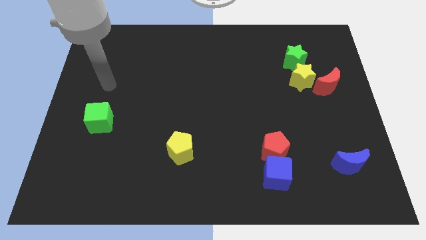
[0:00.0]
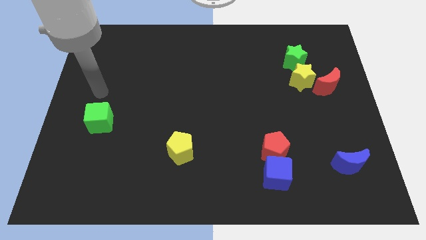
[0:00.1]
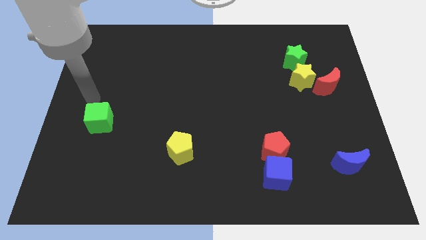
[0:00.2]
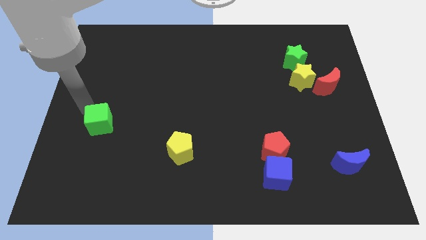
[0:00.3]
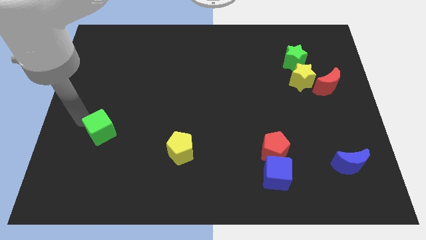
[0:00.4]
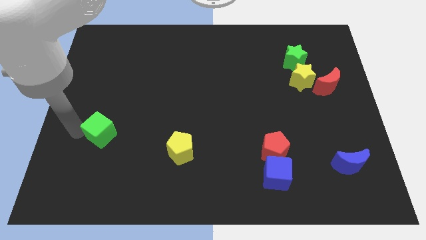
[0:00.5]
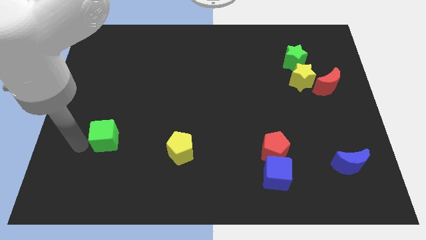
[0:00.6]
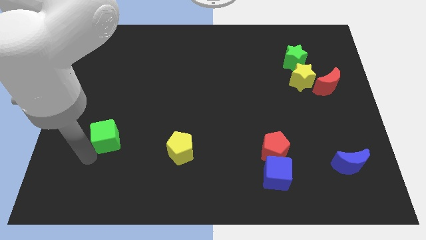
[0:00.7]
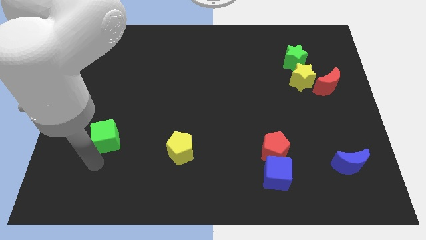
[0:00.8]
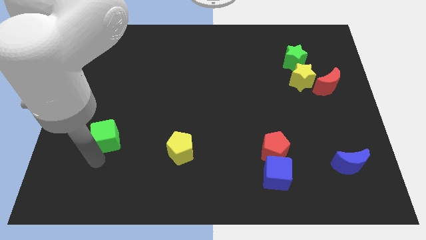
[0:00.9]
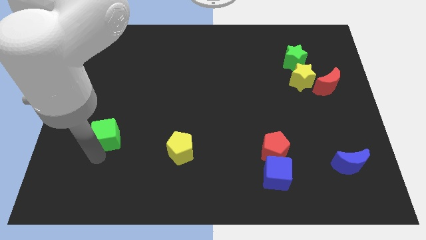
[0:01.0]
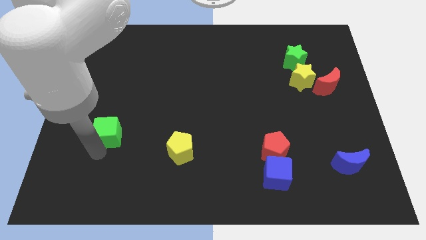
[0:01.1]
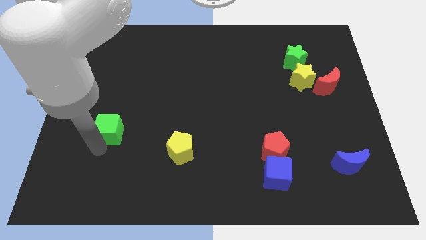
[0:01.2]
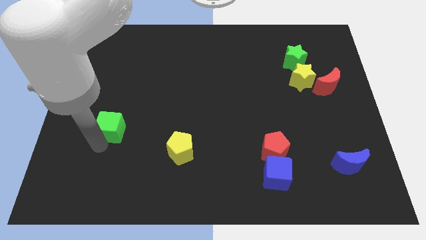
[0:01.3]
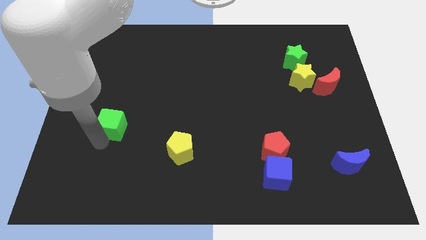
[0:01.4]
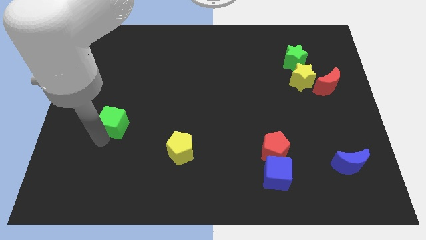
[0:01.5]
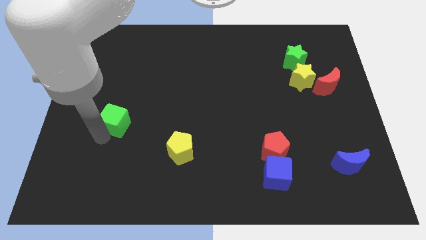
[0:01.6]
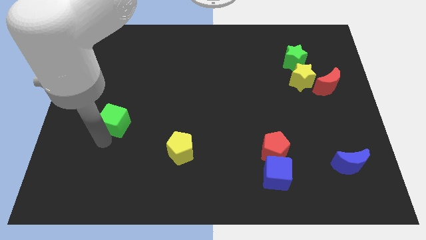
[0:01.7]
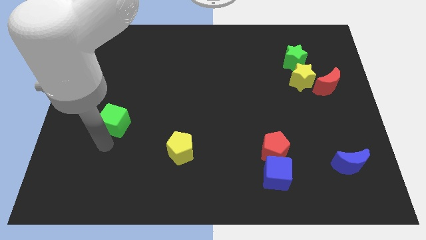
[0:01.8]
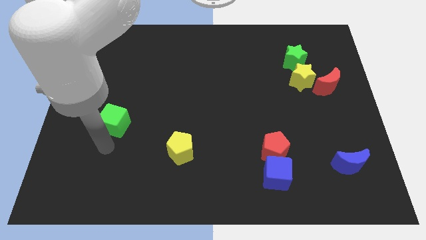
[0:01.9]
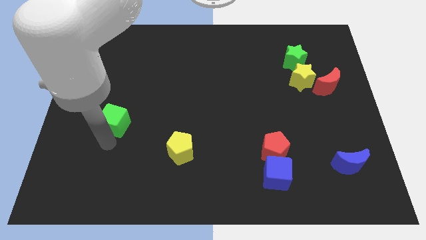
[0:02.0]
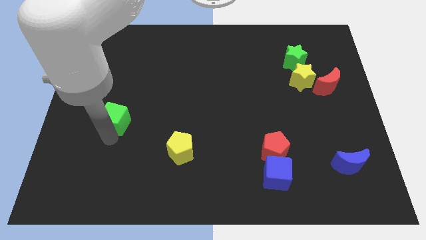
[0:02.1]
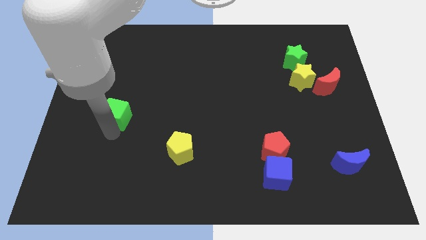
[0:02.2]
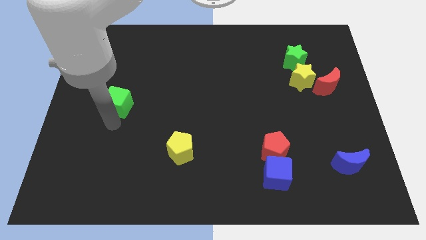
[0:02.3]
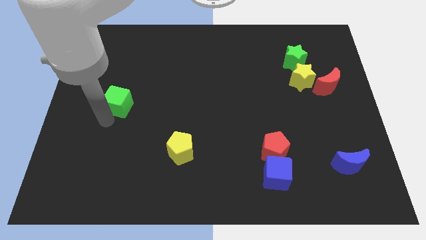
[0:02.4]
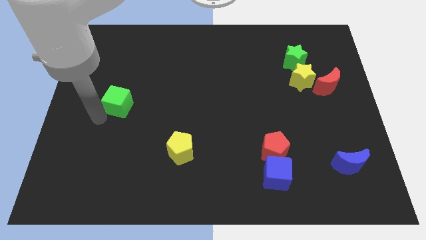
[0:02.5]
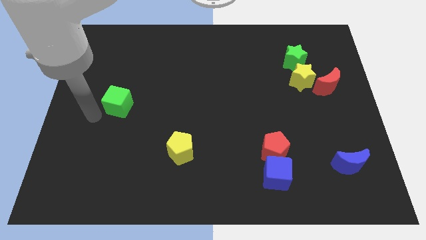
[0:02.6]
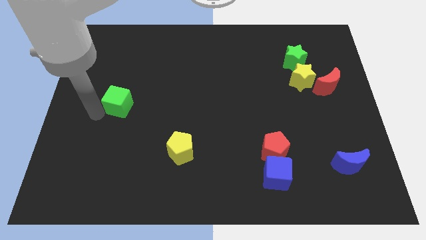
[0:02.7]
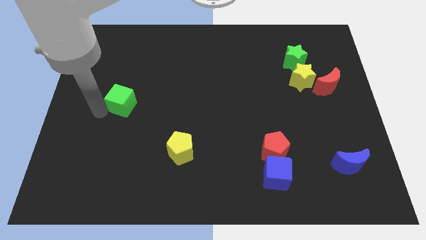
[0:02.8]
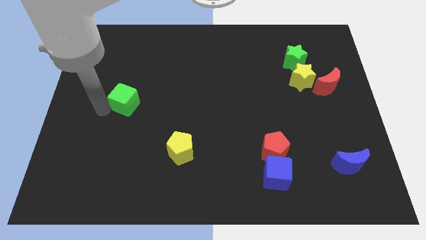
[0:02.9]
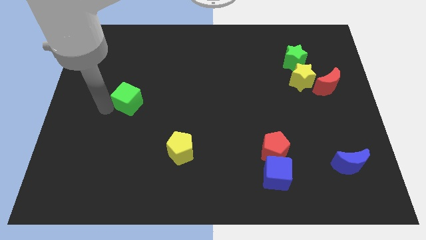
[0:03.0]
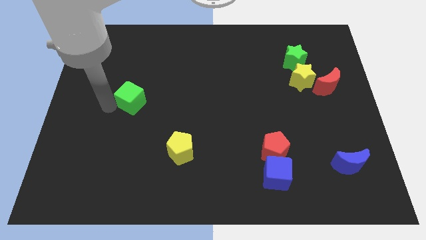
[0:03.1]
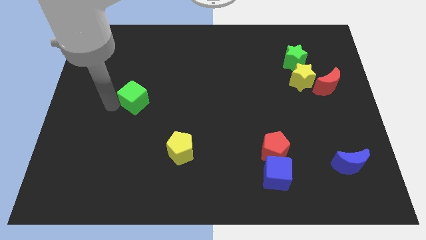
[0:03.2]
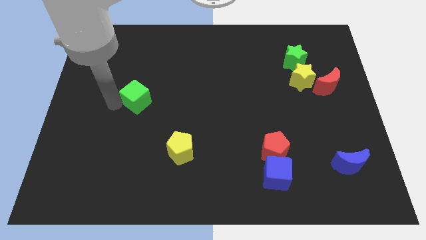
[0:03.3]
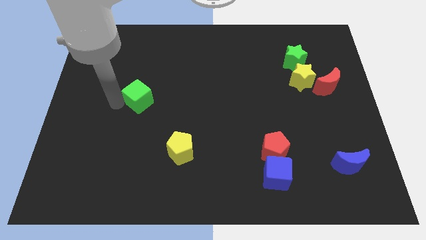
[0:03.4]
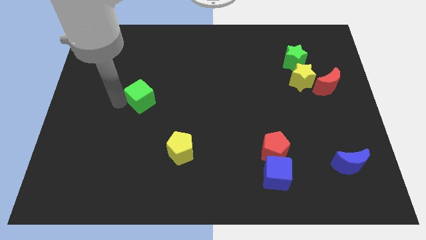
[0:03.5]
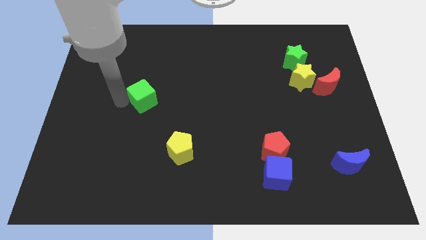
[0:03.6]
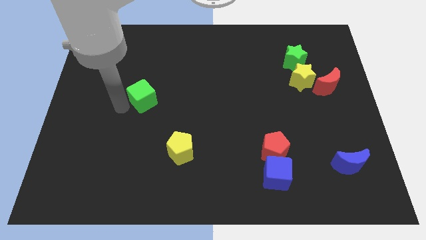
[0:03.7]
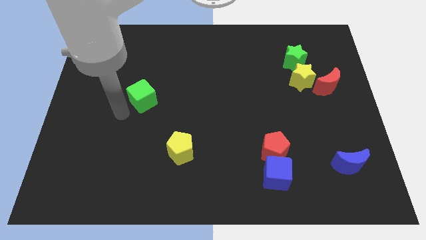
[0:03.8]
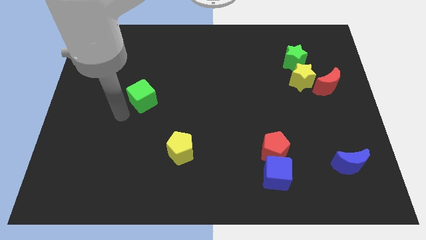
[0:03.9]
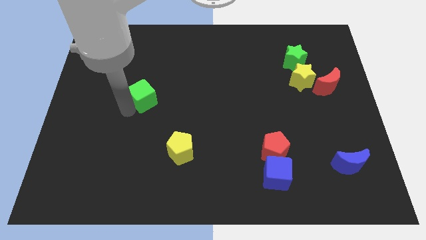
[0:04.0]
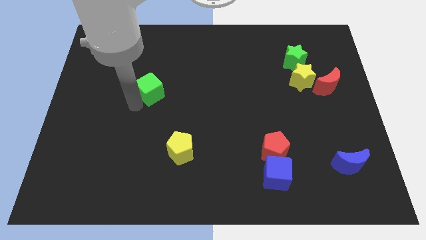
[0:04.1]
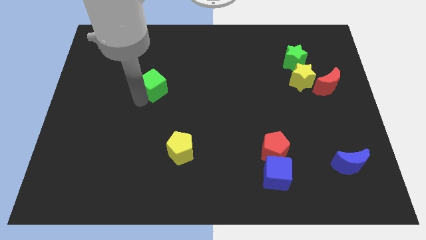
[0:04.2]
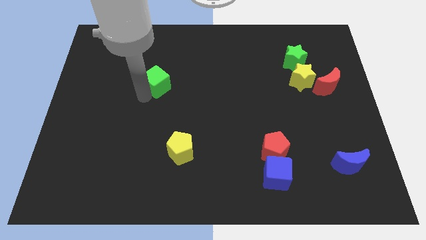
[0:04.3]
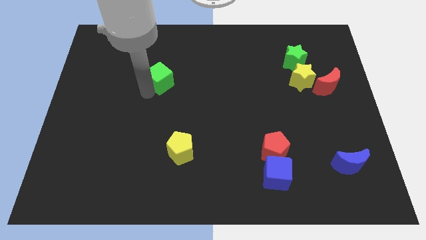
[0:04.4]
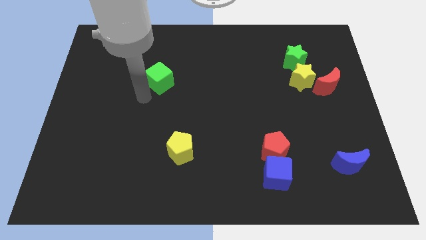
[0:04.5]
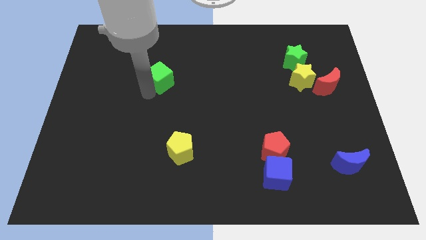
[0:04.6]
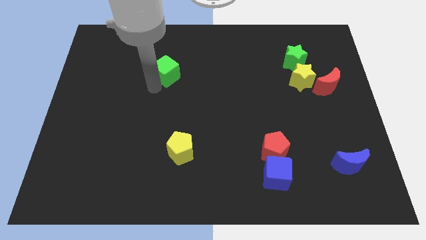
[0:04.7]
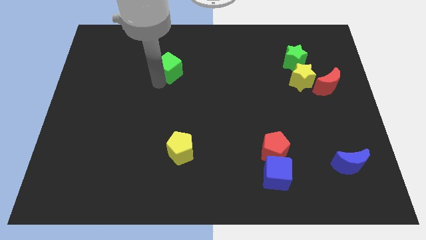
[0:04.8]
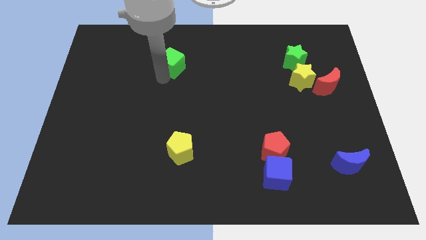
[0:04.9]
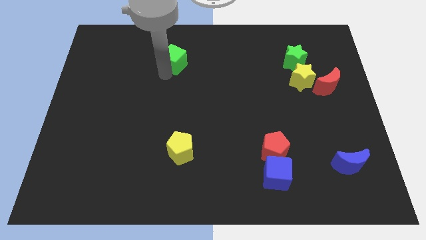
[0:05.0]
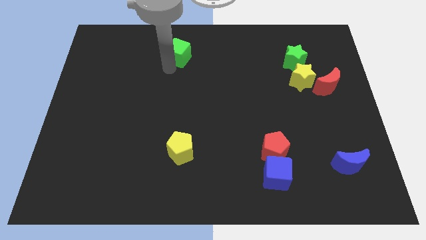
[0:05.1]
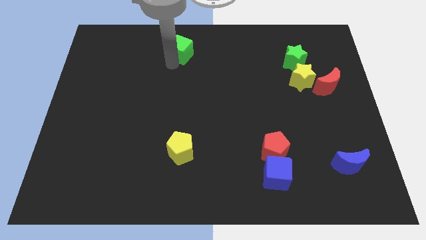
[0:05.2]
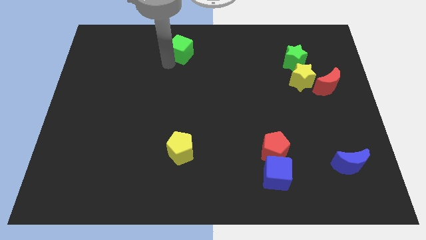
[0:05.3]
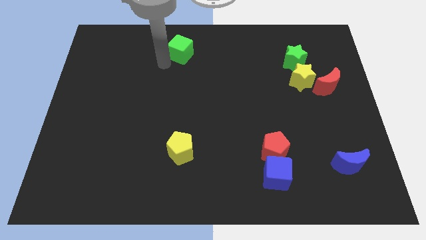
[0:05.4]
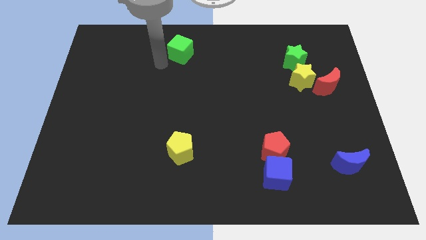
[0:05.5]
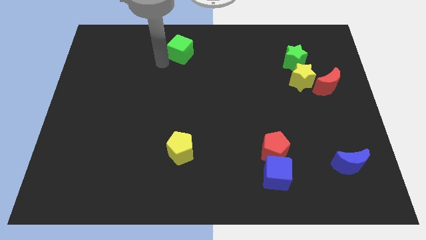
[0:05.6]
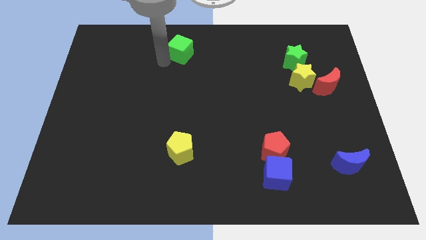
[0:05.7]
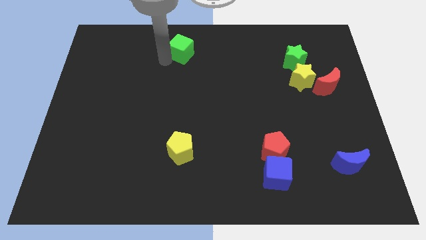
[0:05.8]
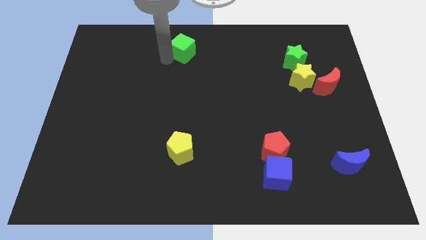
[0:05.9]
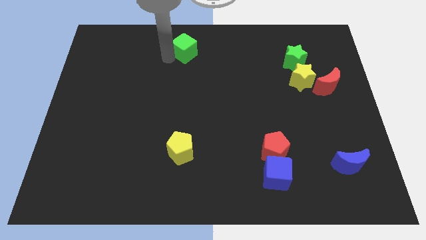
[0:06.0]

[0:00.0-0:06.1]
push the green cube to the top

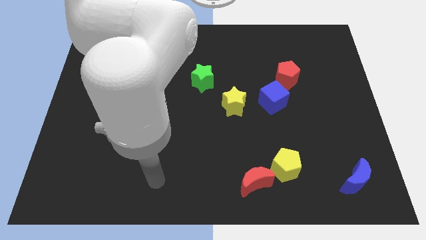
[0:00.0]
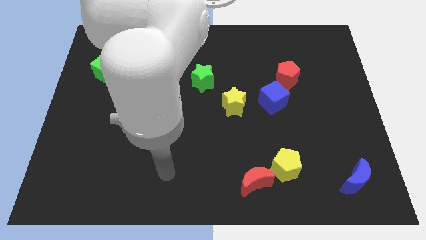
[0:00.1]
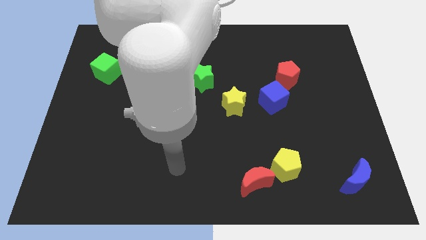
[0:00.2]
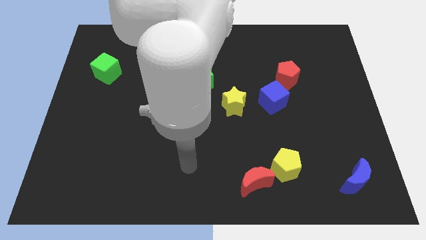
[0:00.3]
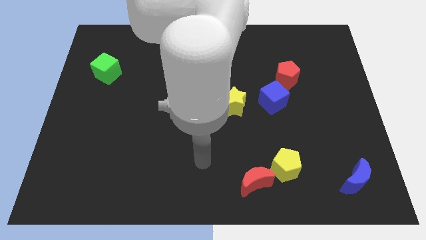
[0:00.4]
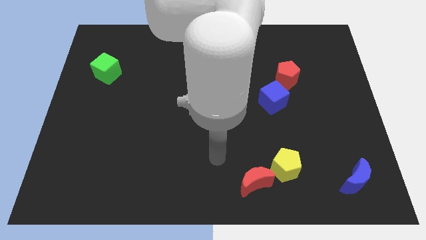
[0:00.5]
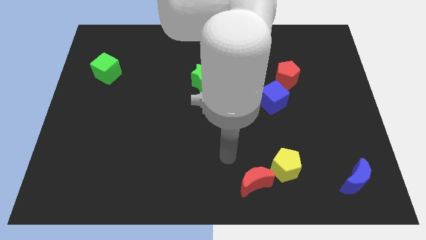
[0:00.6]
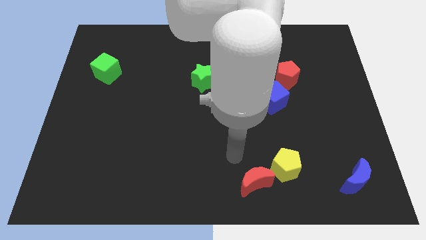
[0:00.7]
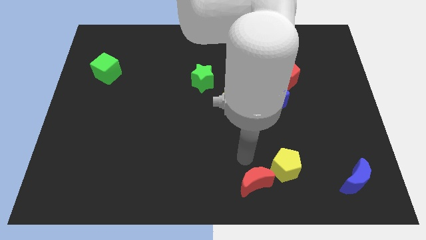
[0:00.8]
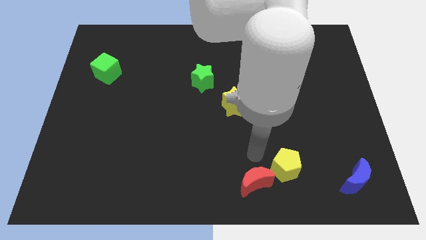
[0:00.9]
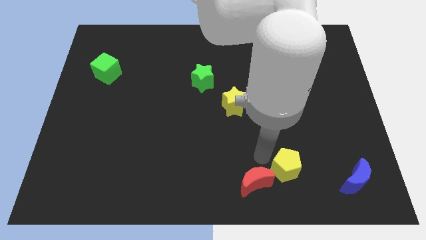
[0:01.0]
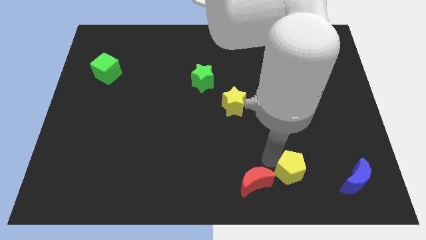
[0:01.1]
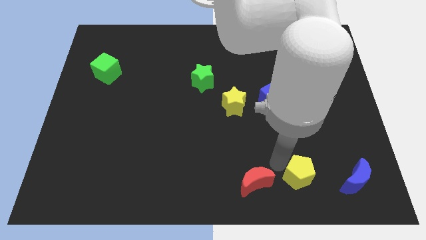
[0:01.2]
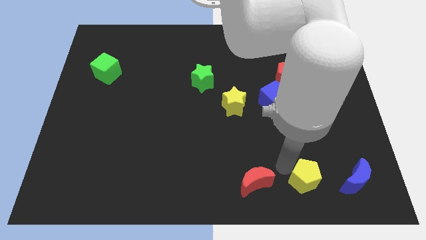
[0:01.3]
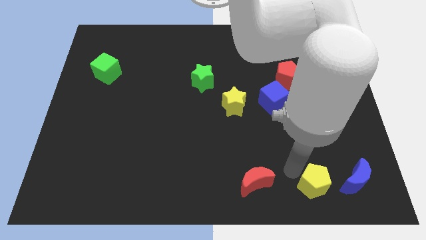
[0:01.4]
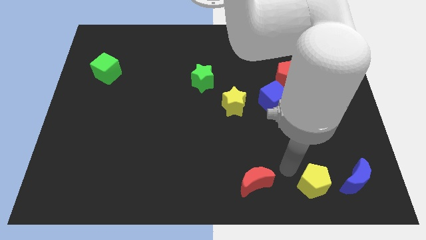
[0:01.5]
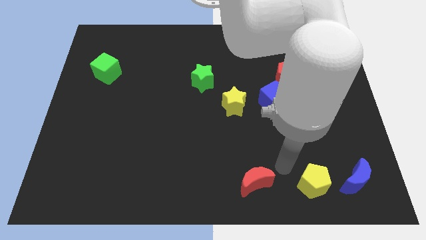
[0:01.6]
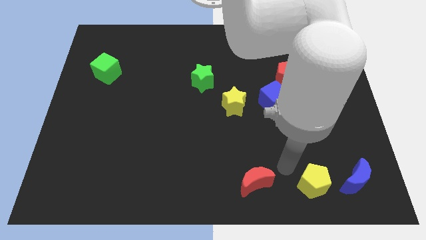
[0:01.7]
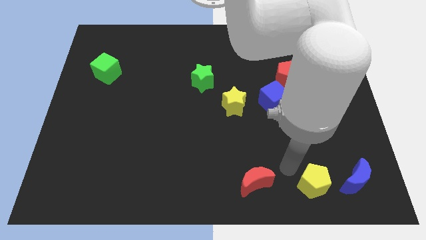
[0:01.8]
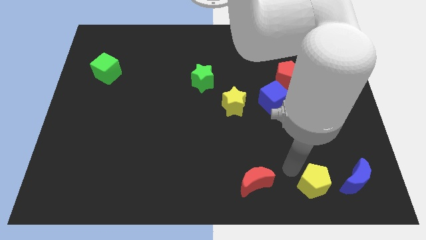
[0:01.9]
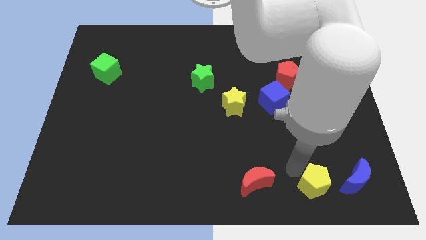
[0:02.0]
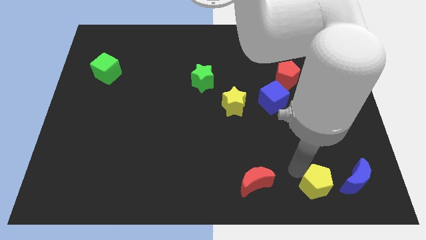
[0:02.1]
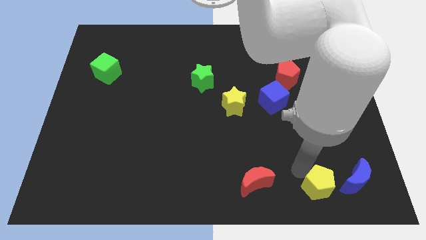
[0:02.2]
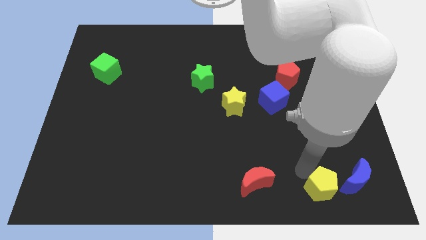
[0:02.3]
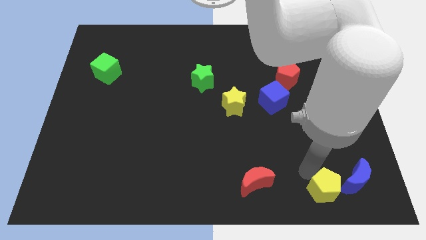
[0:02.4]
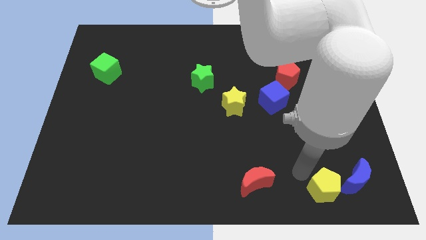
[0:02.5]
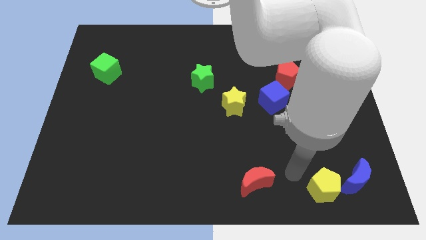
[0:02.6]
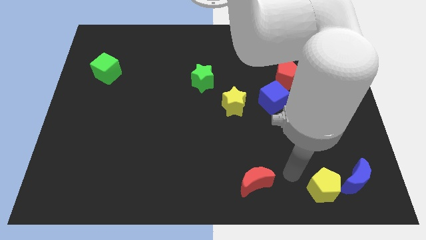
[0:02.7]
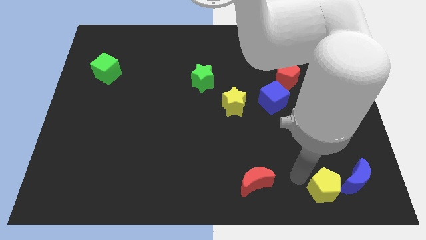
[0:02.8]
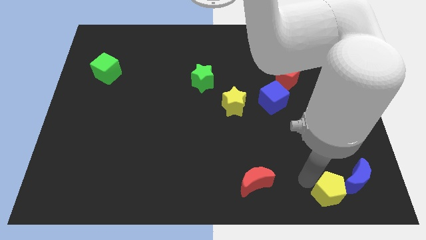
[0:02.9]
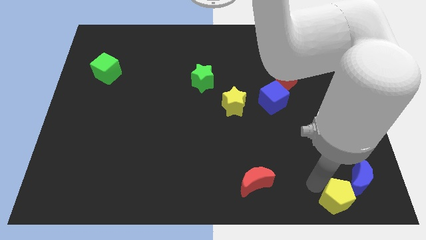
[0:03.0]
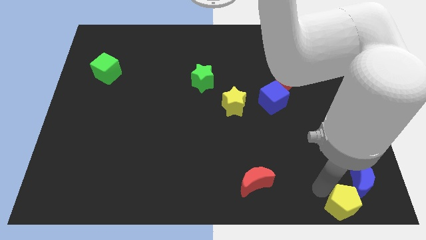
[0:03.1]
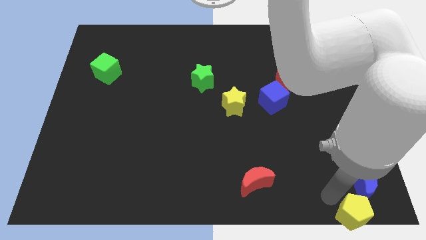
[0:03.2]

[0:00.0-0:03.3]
push the yellow pentagon to the bottom right of the board
